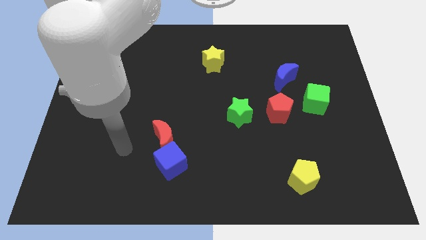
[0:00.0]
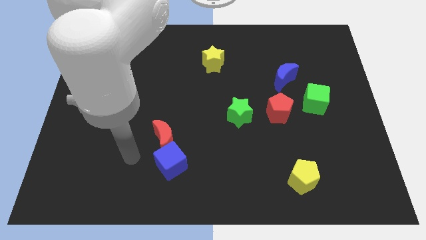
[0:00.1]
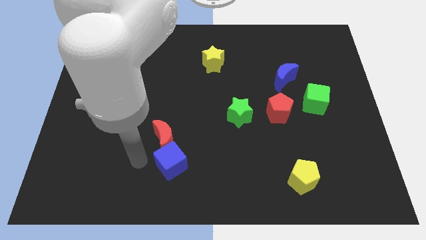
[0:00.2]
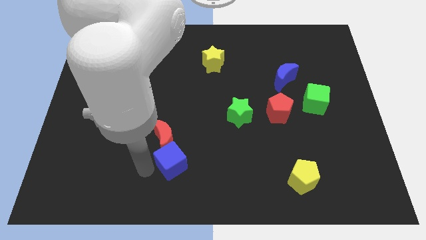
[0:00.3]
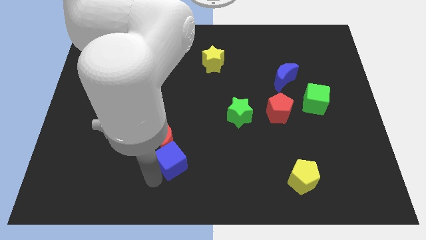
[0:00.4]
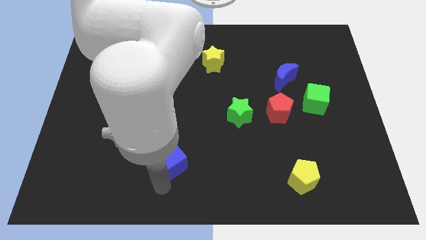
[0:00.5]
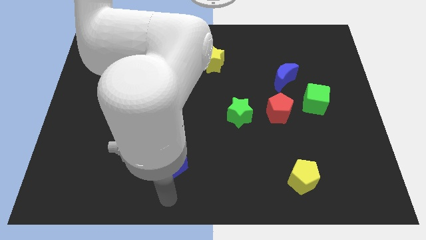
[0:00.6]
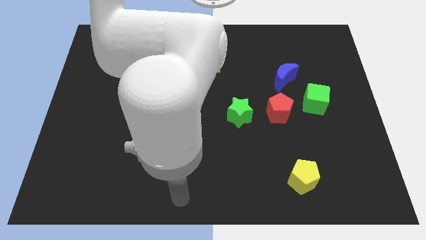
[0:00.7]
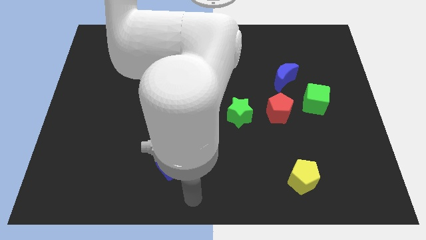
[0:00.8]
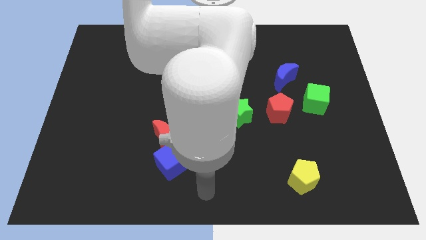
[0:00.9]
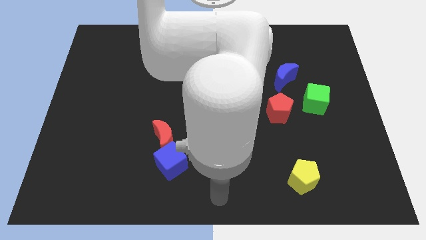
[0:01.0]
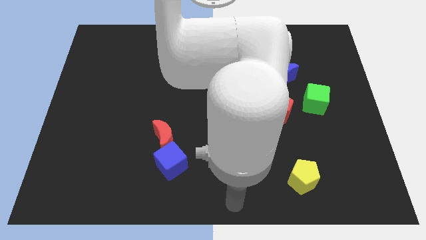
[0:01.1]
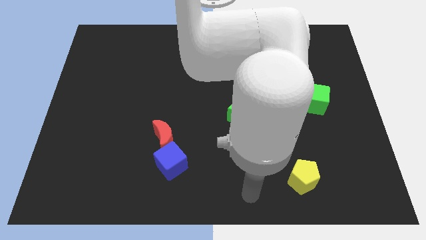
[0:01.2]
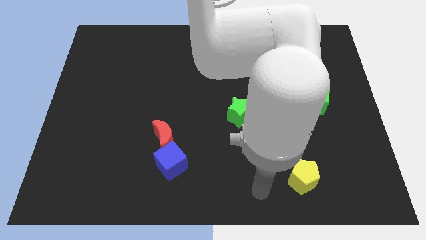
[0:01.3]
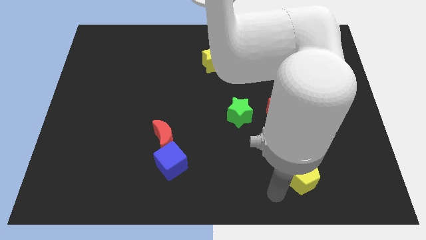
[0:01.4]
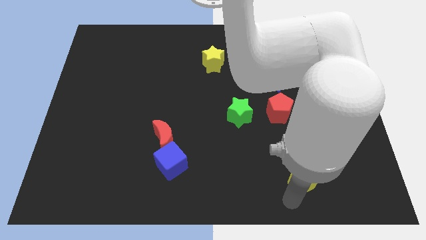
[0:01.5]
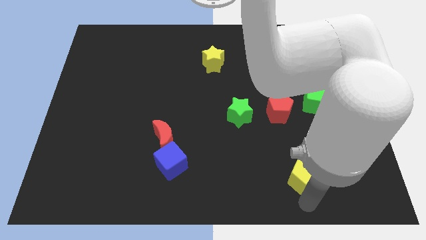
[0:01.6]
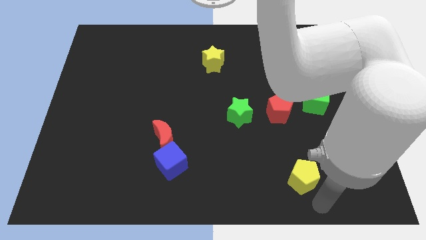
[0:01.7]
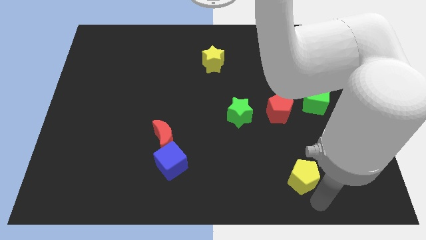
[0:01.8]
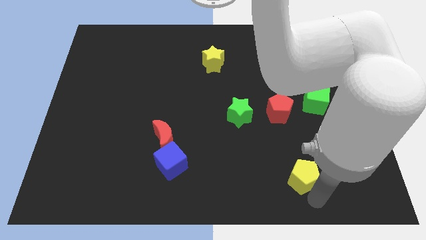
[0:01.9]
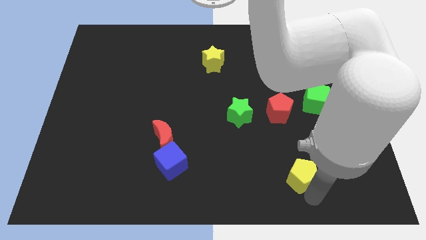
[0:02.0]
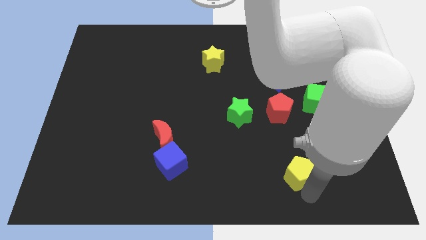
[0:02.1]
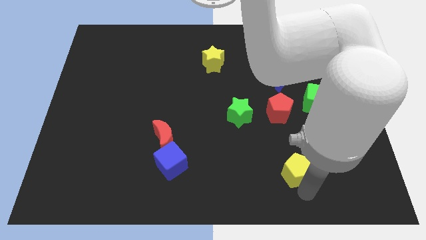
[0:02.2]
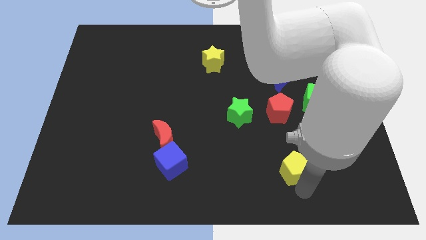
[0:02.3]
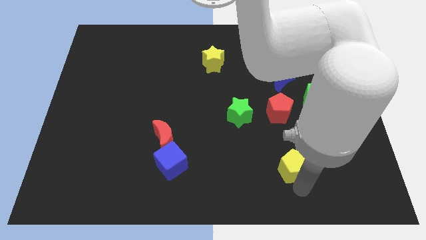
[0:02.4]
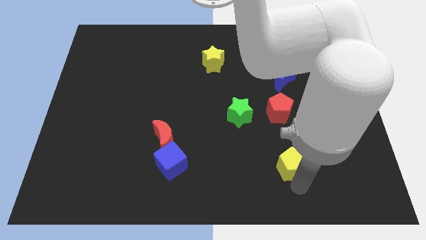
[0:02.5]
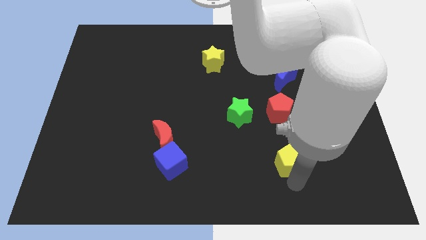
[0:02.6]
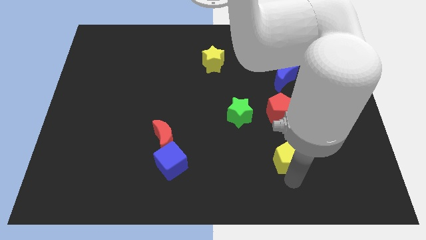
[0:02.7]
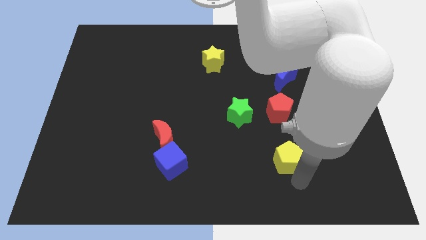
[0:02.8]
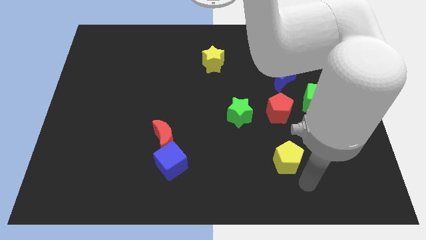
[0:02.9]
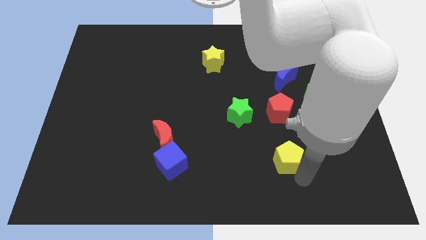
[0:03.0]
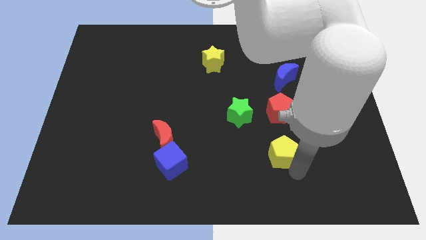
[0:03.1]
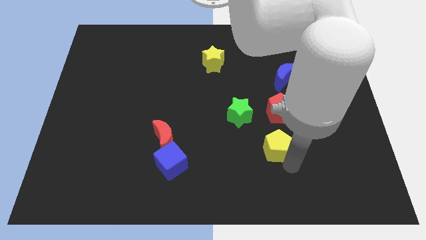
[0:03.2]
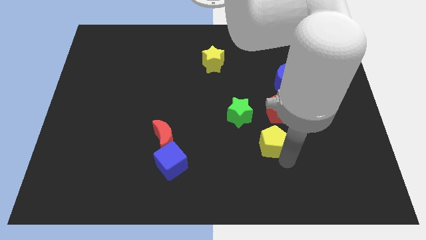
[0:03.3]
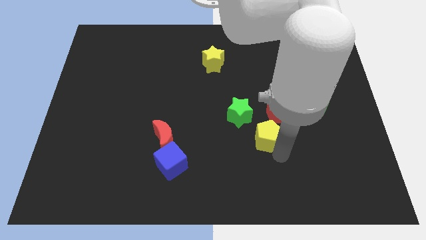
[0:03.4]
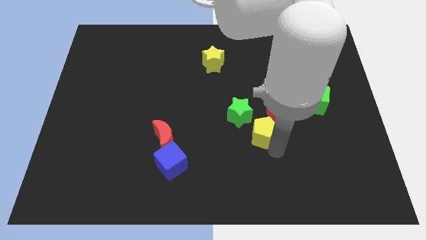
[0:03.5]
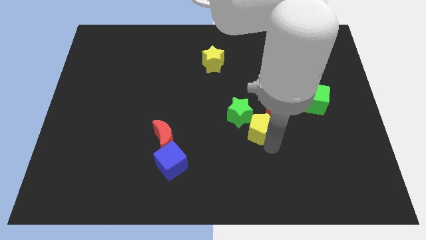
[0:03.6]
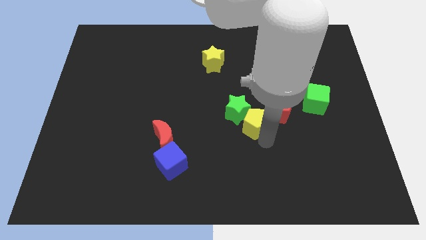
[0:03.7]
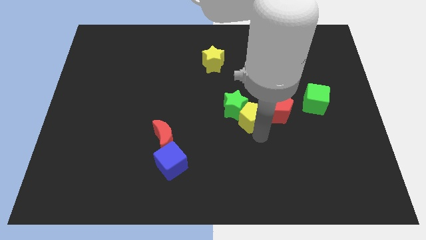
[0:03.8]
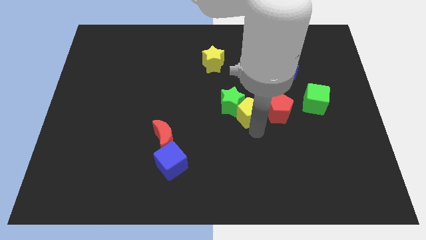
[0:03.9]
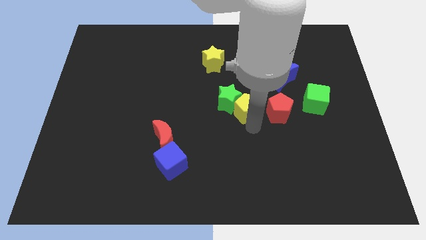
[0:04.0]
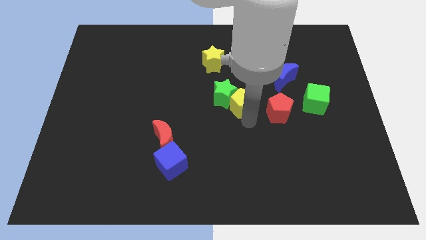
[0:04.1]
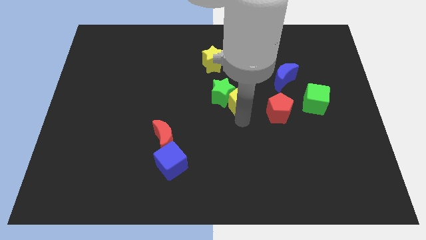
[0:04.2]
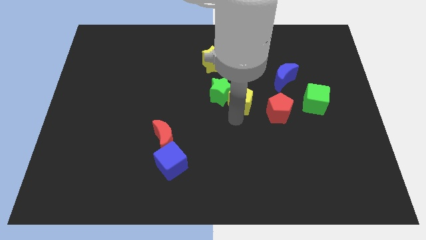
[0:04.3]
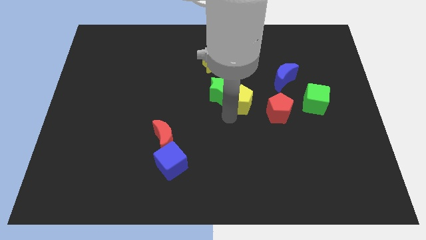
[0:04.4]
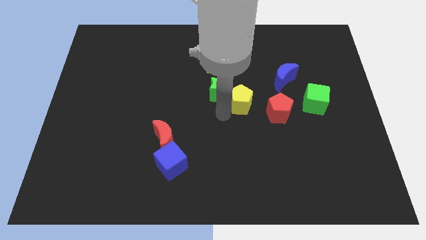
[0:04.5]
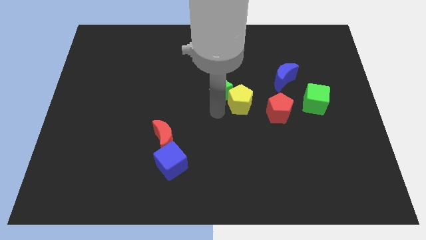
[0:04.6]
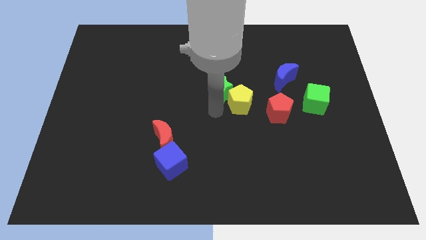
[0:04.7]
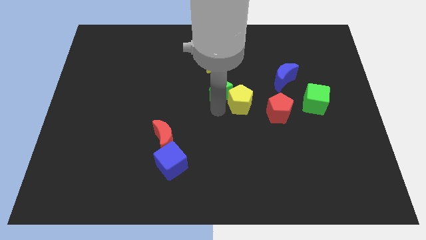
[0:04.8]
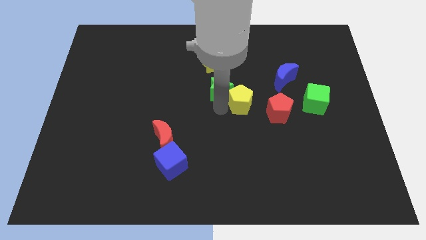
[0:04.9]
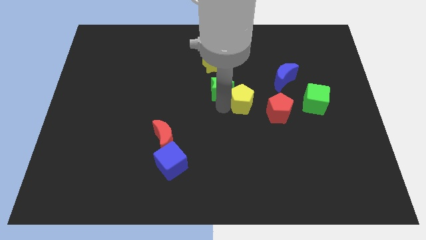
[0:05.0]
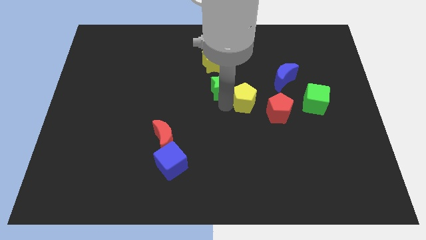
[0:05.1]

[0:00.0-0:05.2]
push the yellow pentagon to the bottom left side of the blue moon

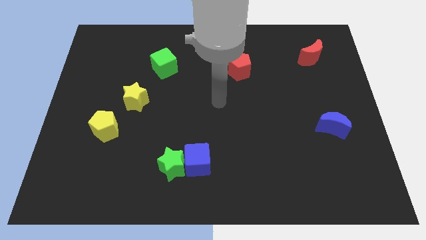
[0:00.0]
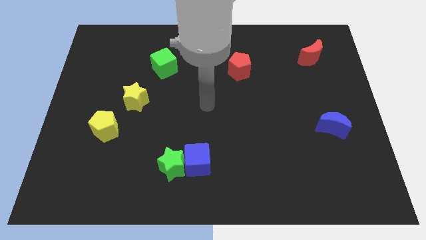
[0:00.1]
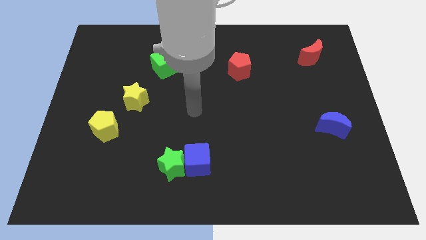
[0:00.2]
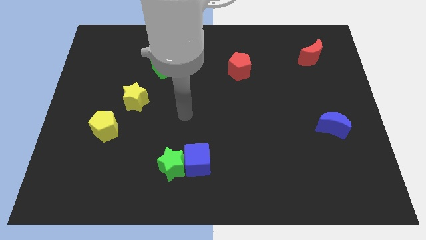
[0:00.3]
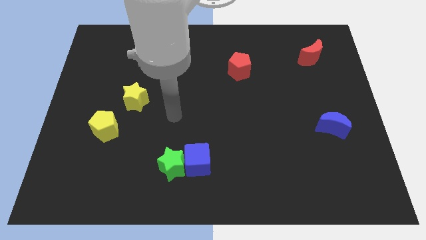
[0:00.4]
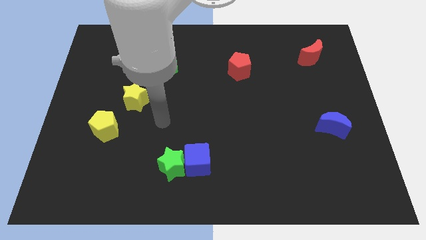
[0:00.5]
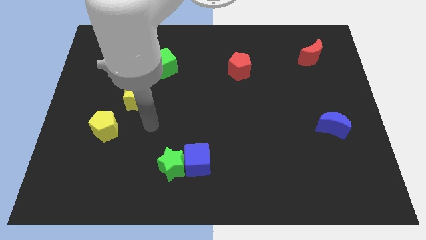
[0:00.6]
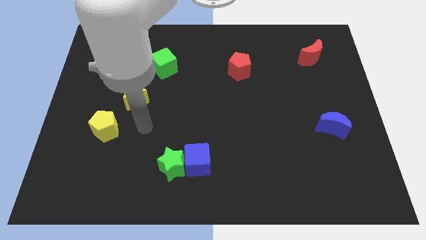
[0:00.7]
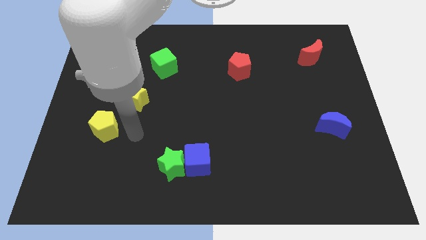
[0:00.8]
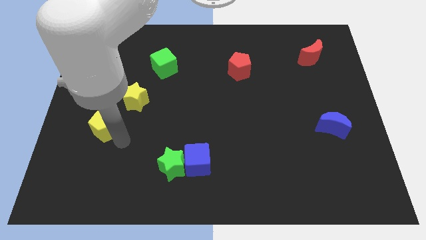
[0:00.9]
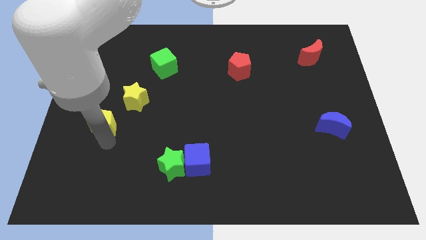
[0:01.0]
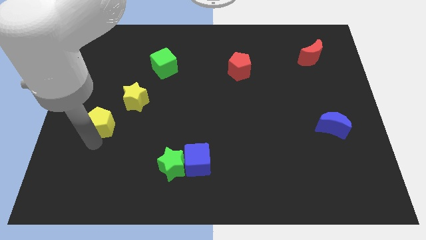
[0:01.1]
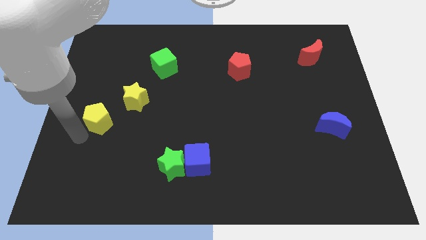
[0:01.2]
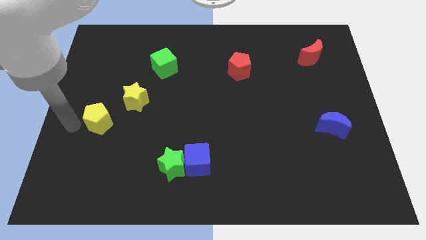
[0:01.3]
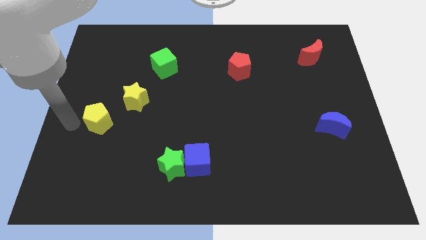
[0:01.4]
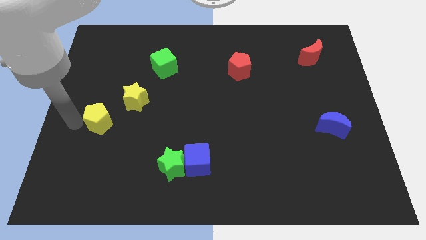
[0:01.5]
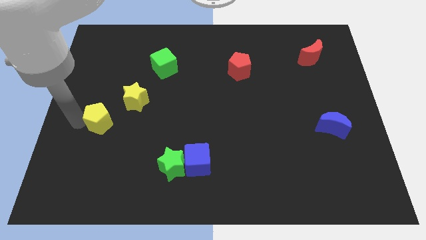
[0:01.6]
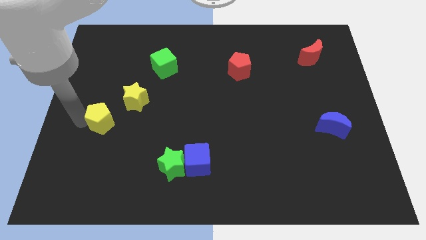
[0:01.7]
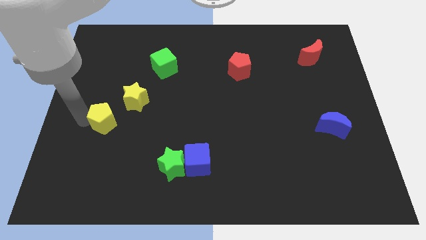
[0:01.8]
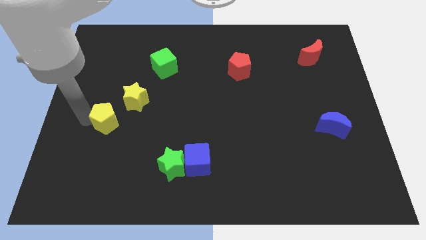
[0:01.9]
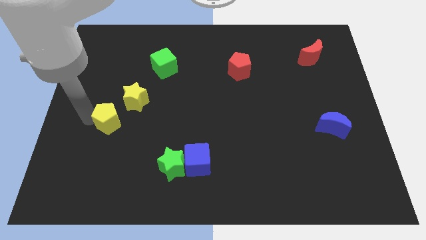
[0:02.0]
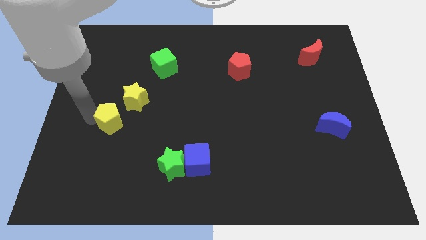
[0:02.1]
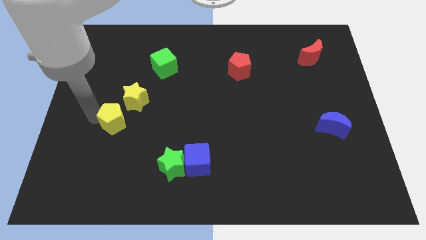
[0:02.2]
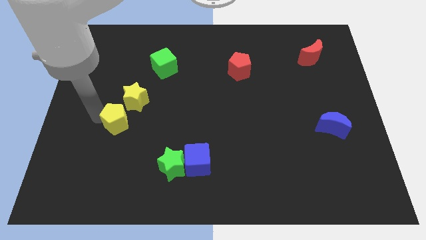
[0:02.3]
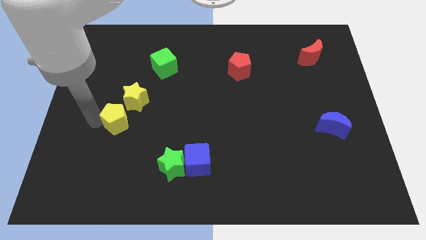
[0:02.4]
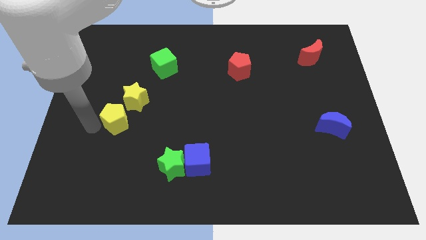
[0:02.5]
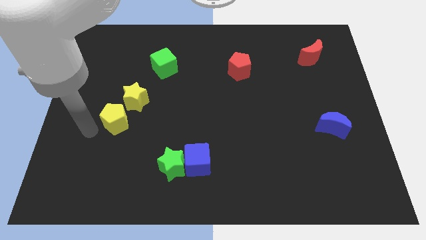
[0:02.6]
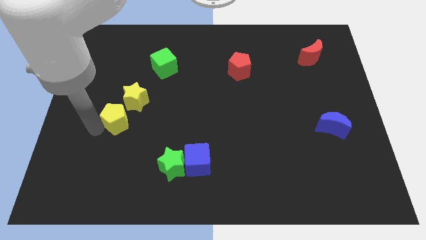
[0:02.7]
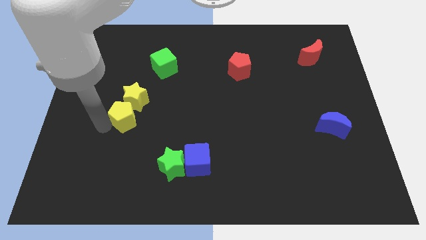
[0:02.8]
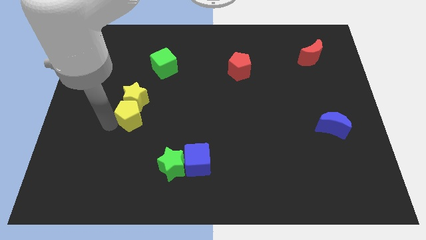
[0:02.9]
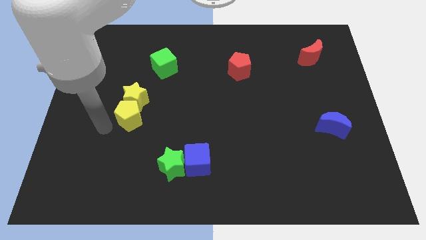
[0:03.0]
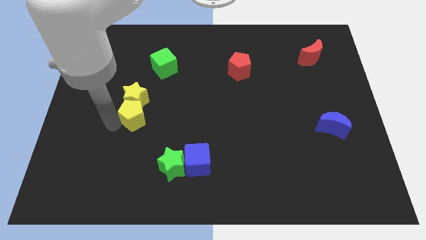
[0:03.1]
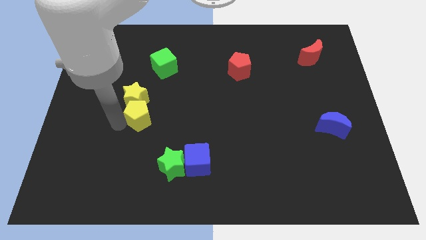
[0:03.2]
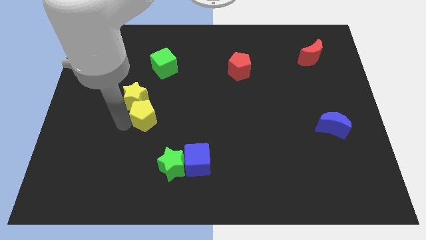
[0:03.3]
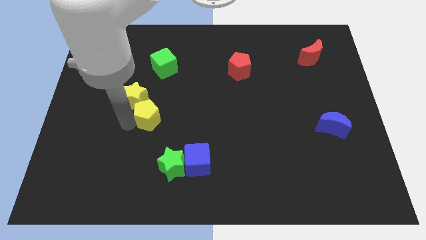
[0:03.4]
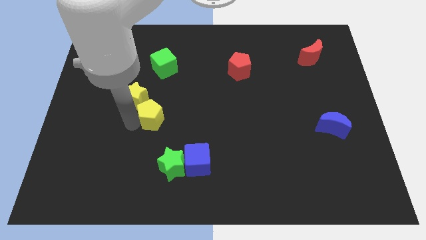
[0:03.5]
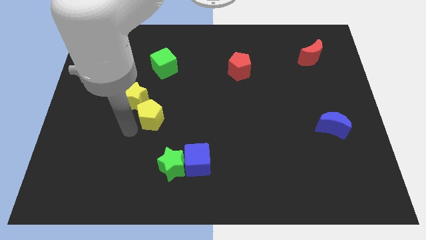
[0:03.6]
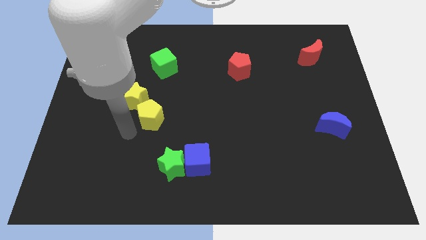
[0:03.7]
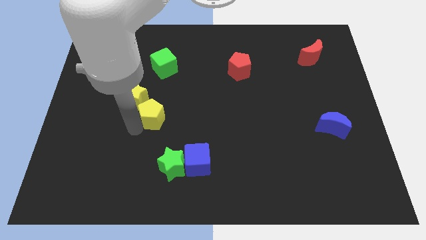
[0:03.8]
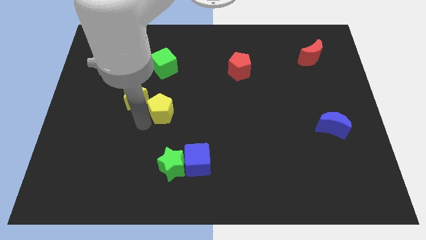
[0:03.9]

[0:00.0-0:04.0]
slide the yellow pentagon to the right of the yellow star
